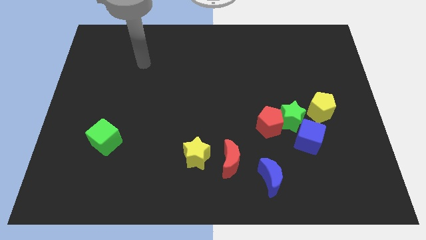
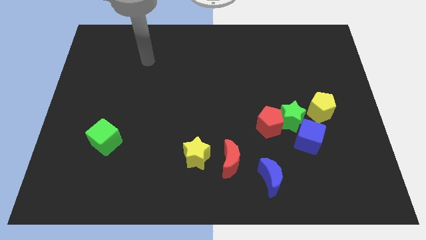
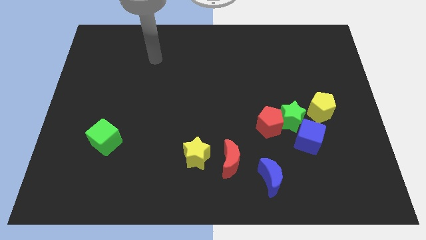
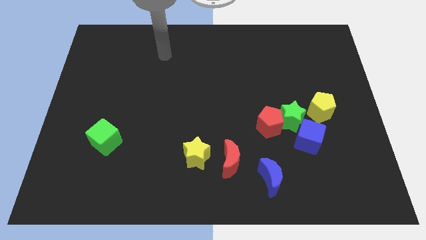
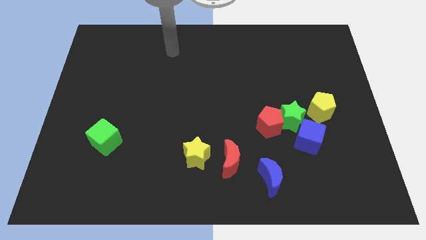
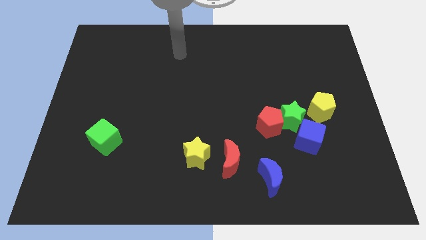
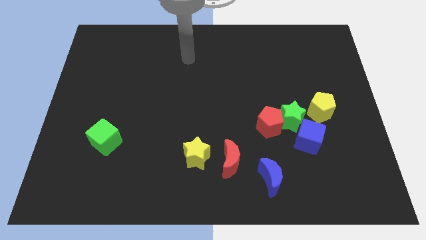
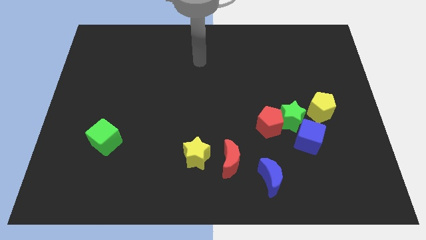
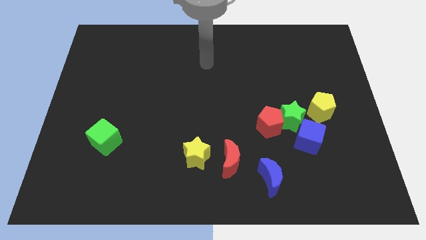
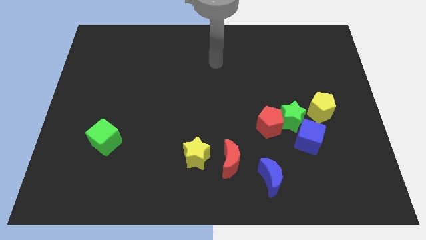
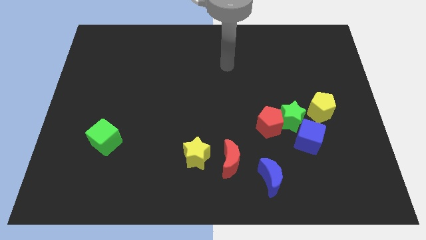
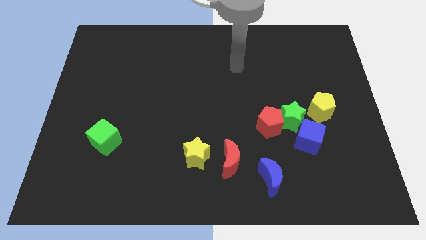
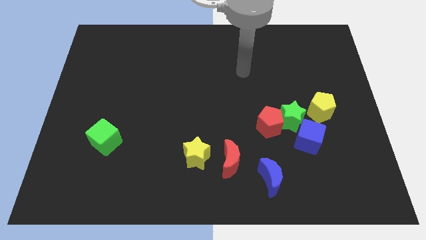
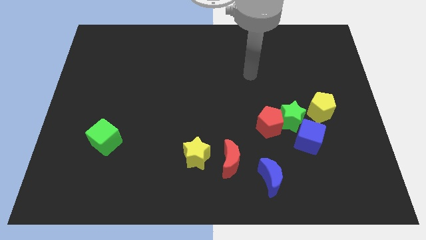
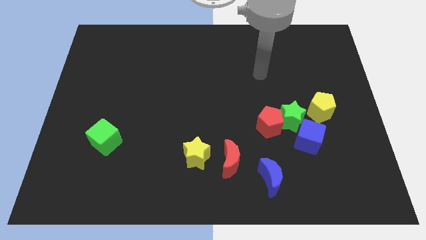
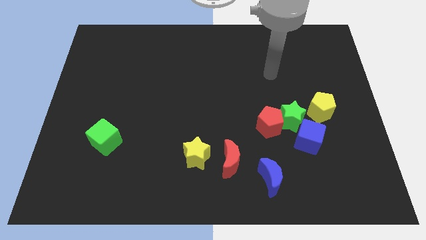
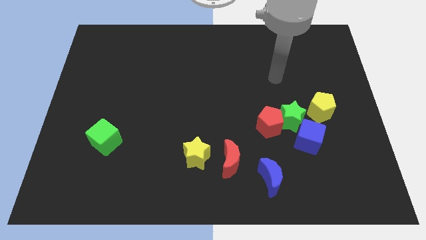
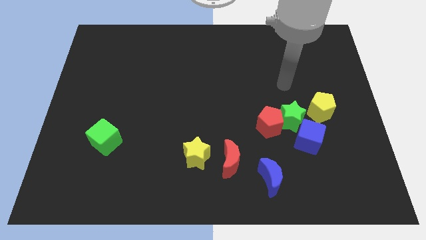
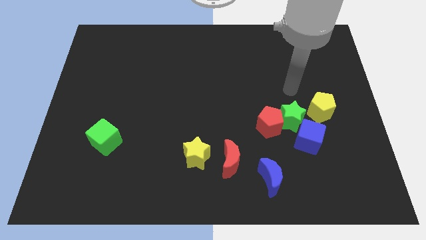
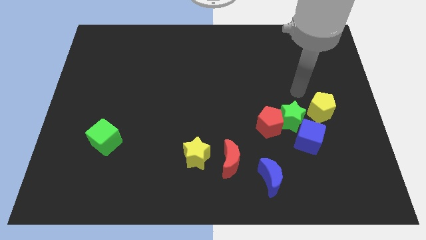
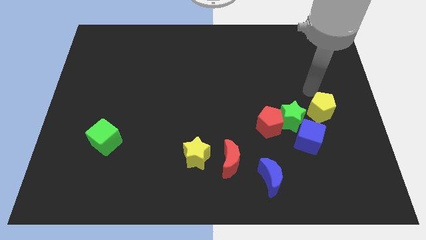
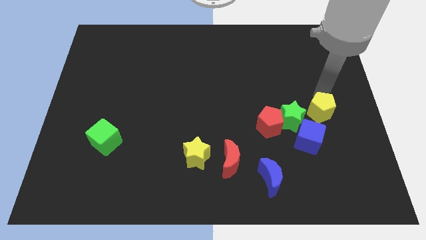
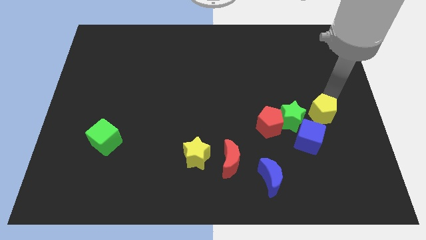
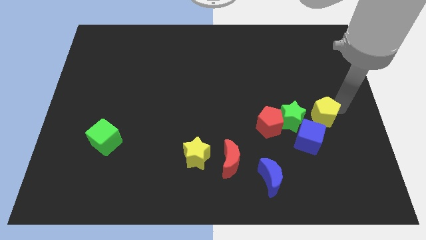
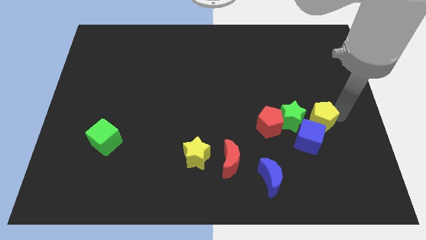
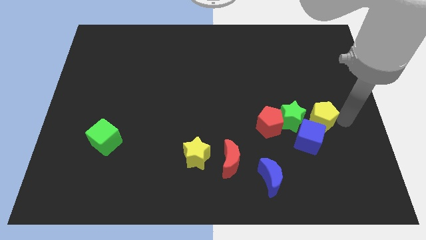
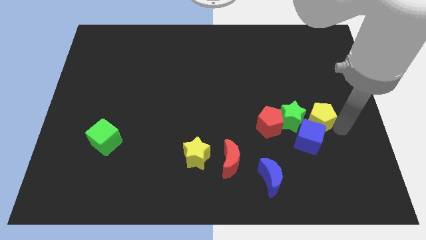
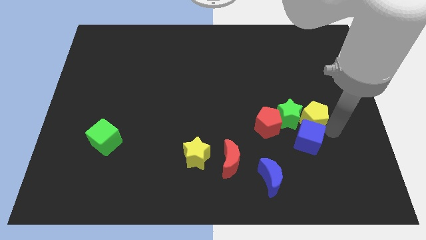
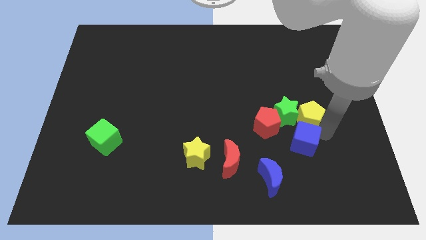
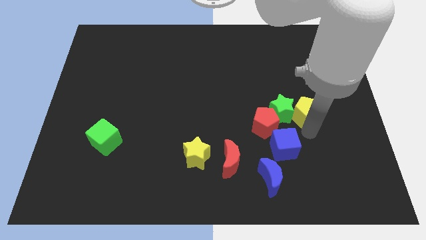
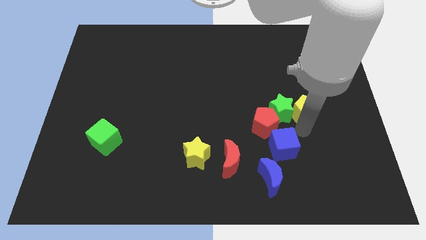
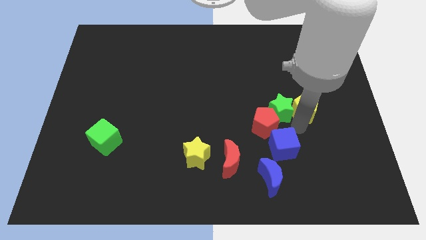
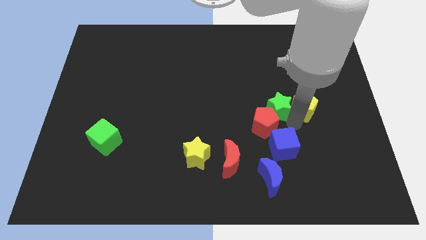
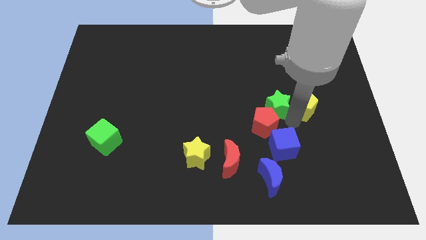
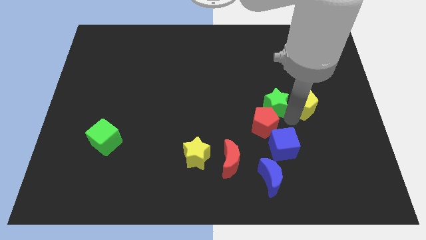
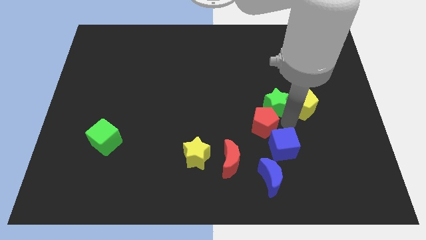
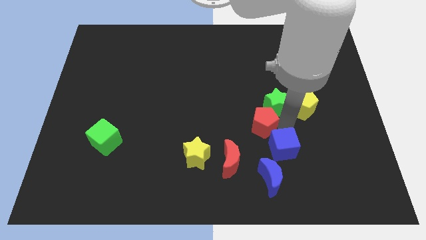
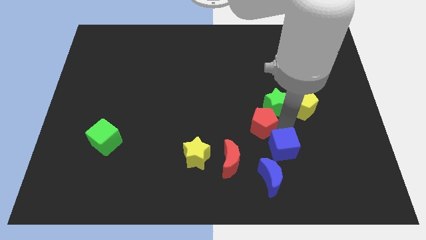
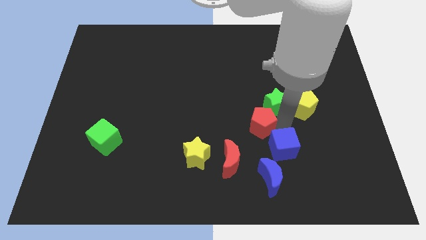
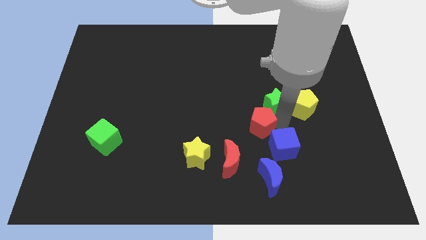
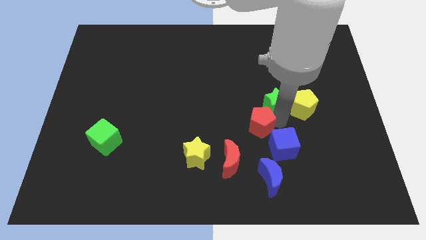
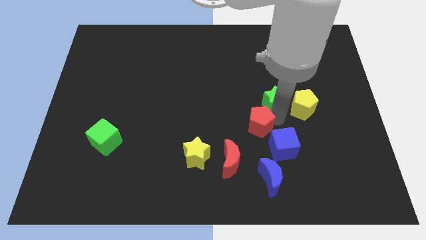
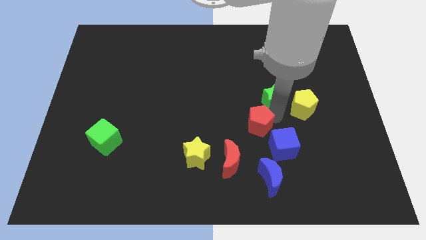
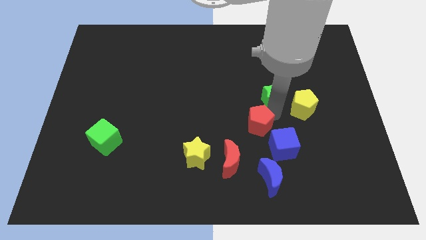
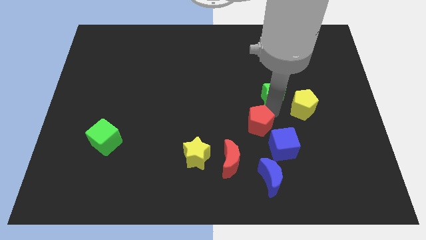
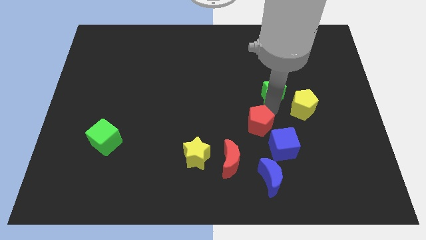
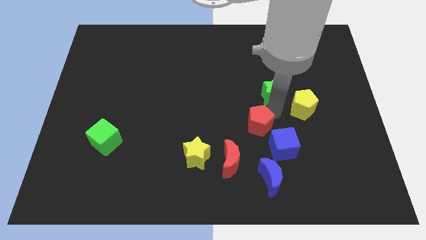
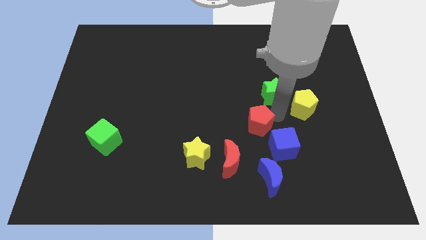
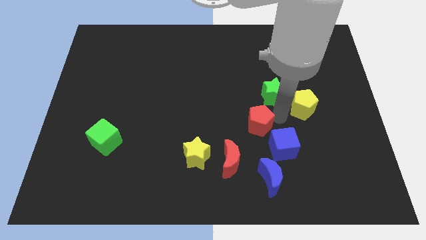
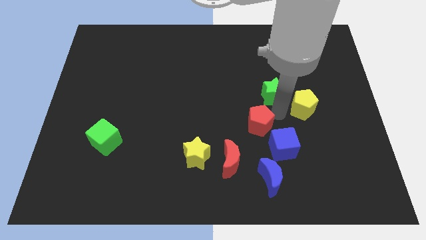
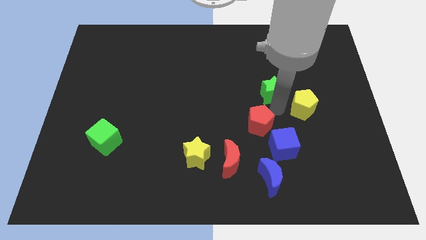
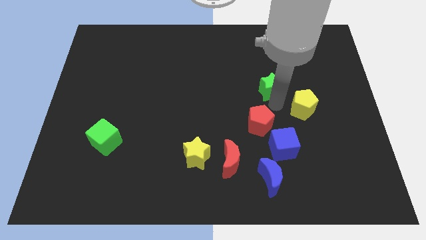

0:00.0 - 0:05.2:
separate the green star from the group

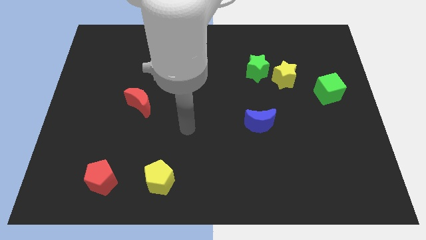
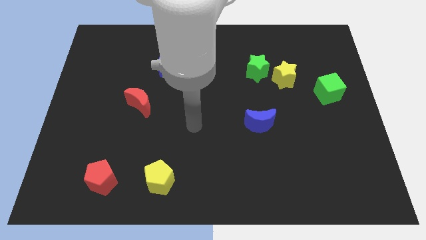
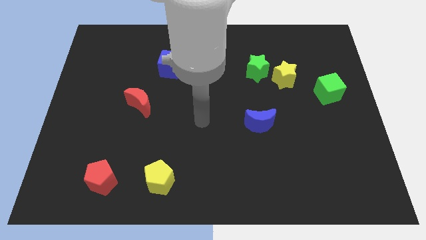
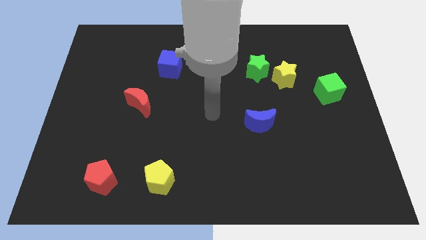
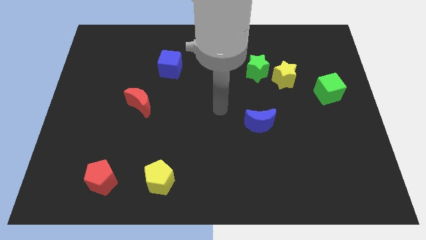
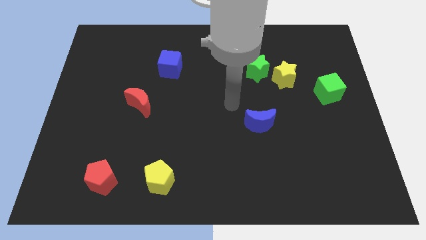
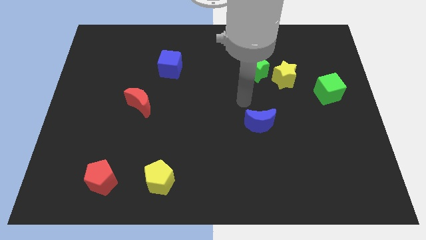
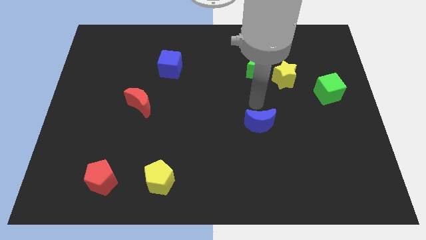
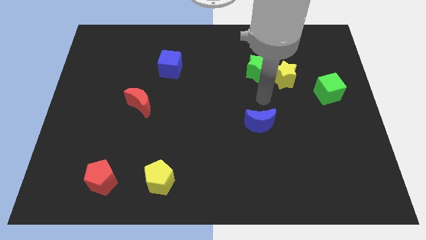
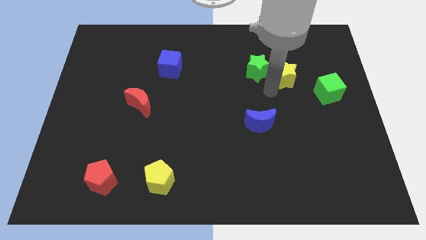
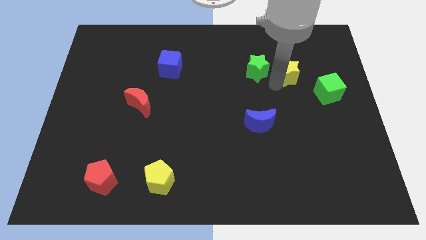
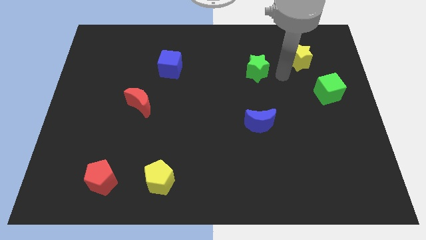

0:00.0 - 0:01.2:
separate the green star from the yellow star

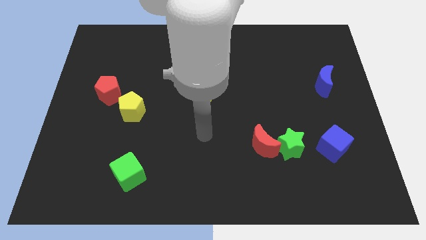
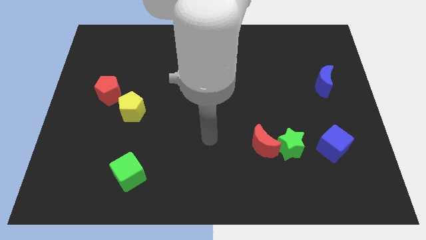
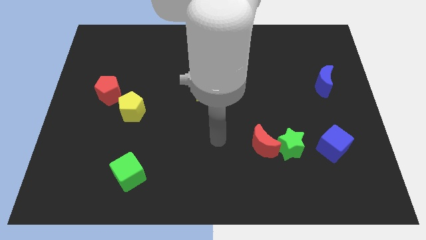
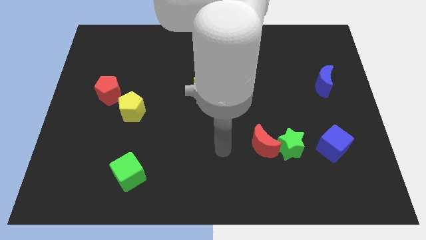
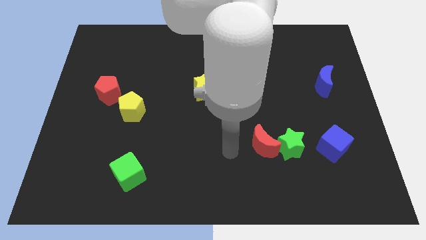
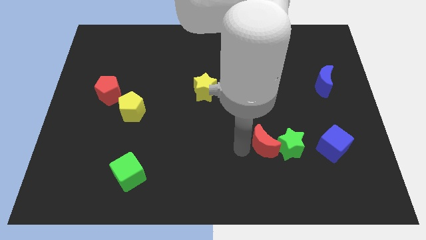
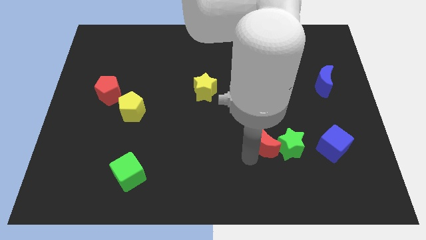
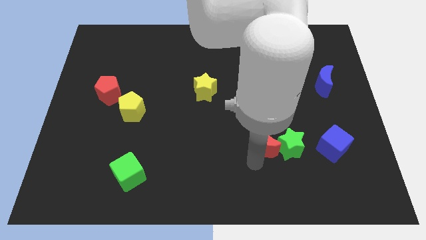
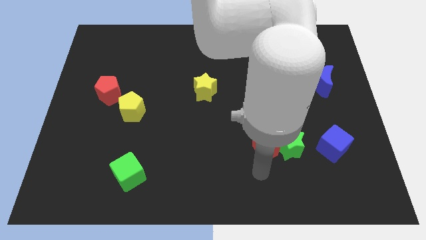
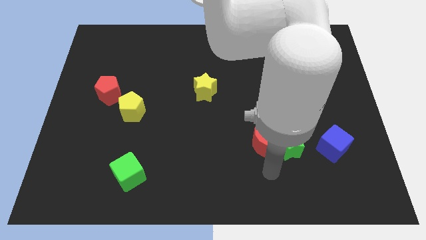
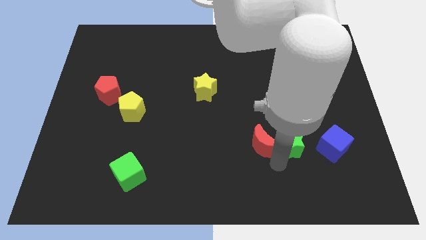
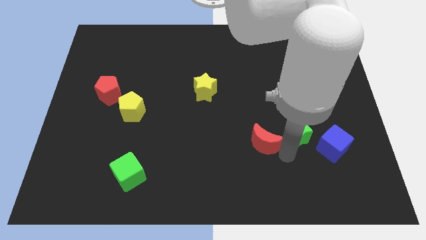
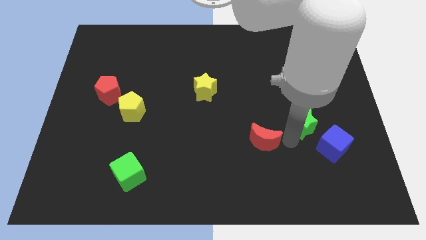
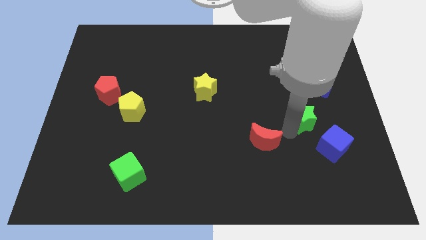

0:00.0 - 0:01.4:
move the red moon away from the green star

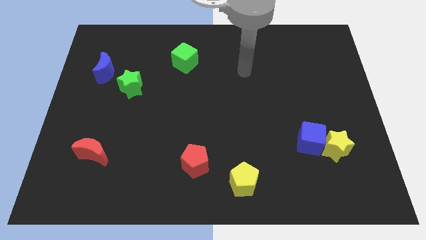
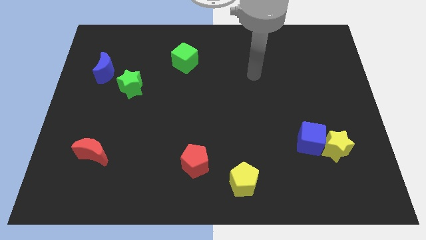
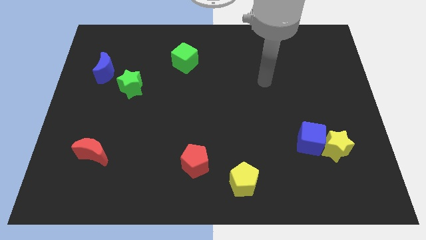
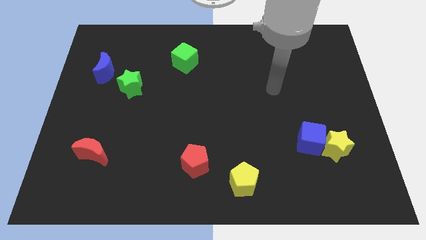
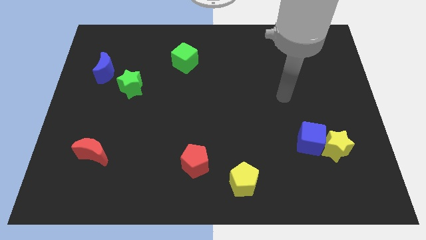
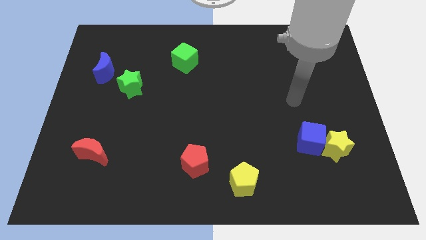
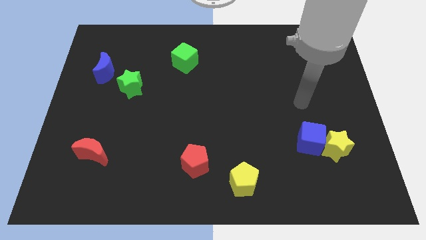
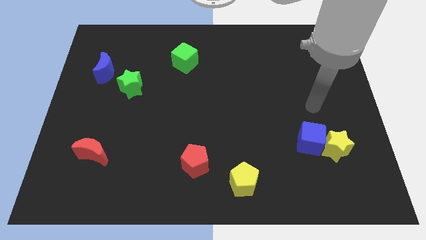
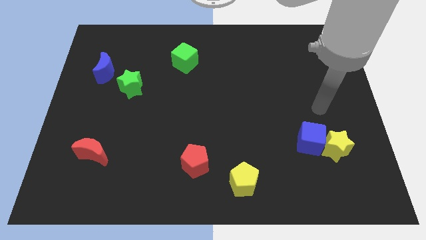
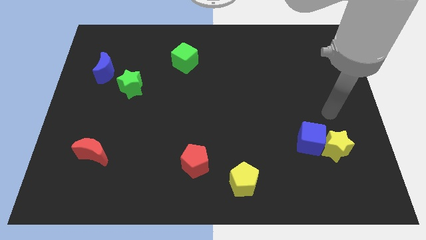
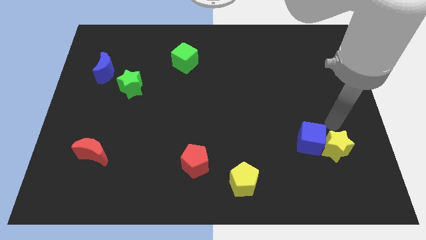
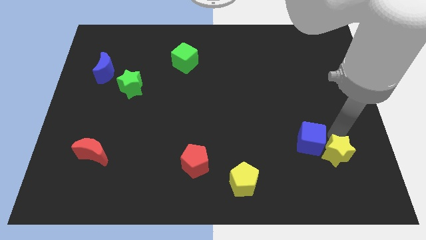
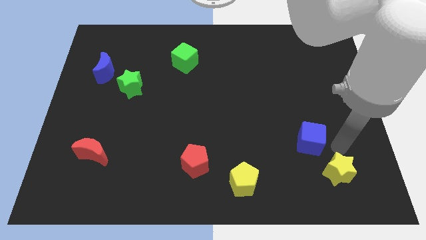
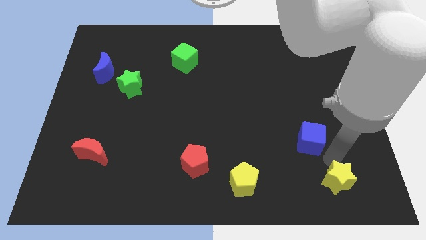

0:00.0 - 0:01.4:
separate the blue cube from the yellow star

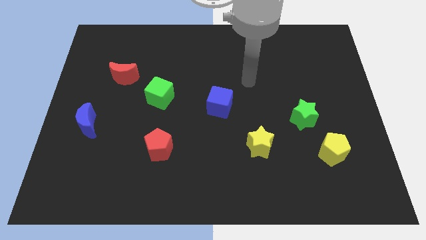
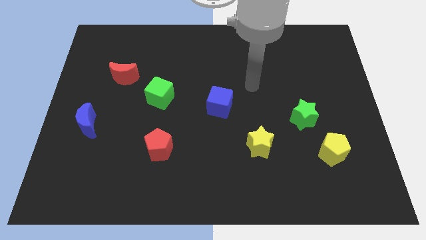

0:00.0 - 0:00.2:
separate the green star from the yellow pentagon
